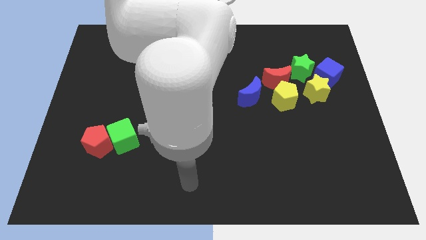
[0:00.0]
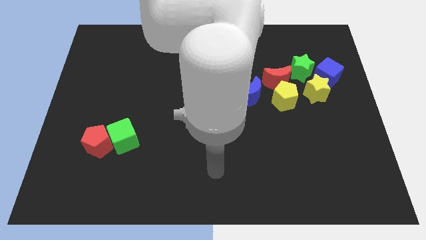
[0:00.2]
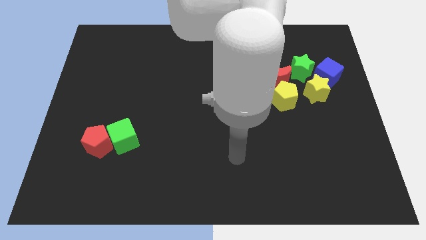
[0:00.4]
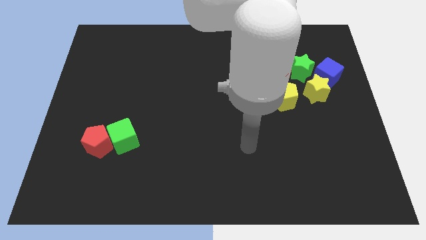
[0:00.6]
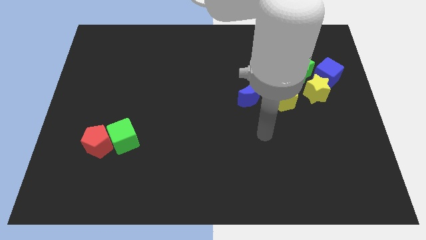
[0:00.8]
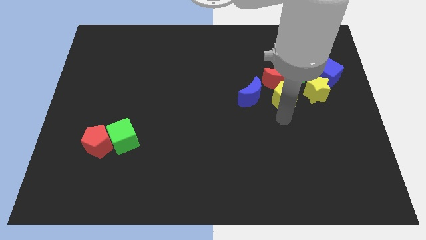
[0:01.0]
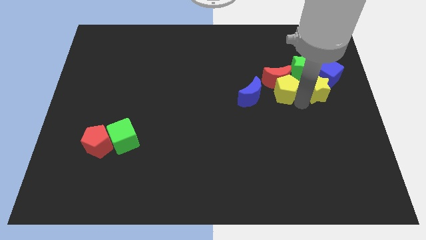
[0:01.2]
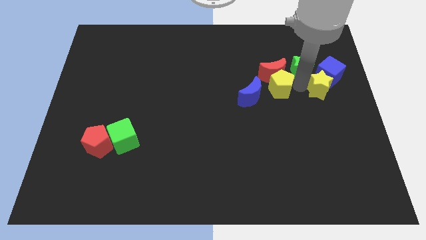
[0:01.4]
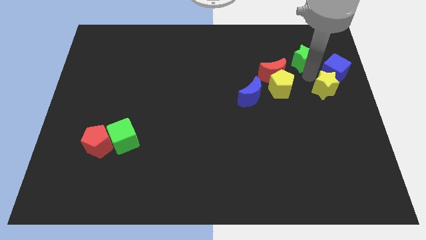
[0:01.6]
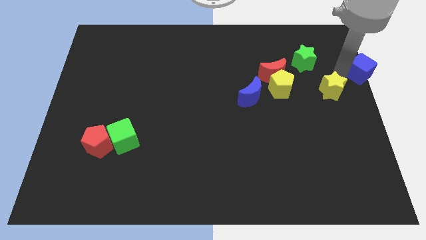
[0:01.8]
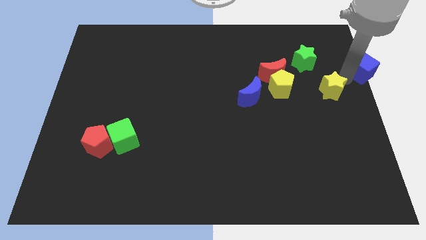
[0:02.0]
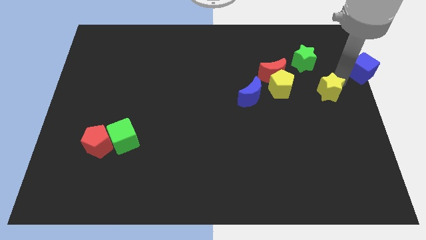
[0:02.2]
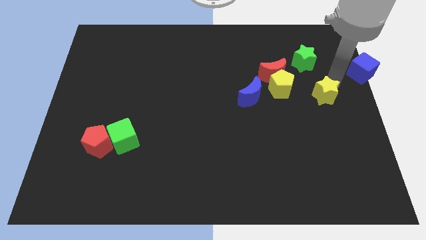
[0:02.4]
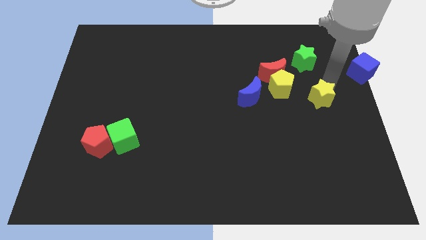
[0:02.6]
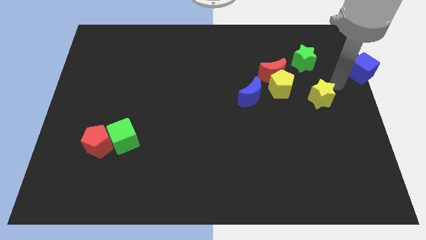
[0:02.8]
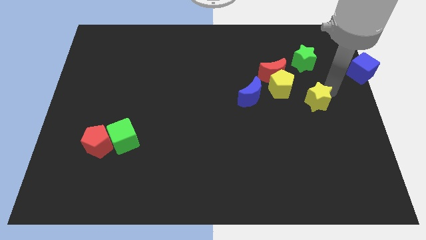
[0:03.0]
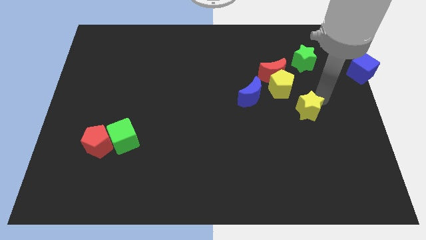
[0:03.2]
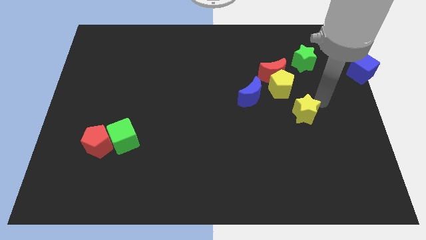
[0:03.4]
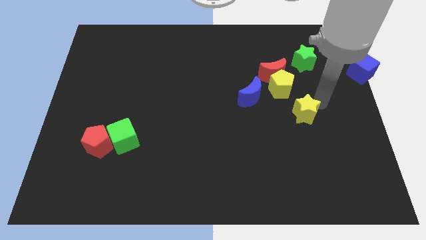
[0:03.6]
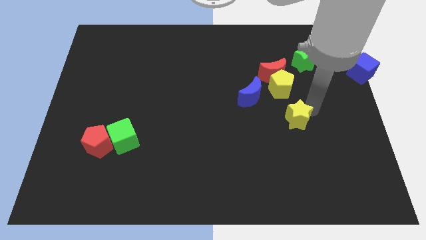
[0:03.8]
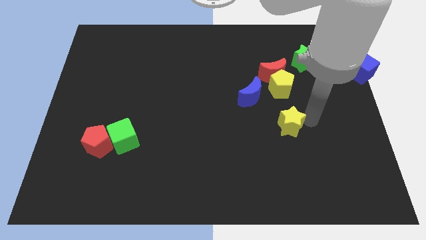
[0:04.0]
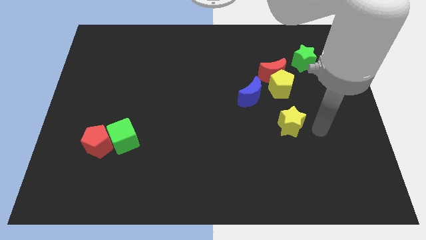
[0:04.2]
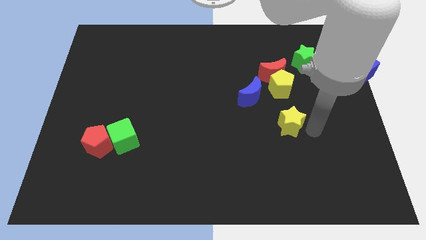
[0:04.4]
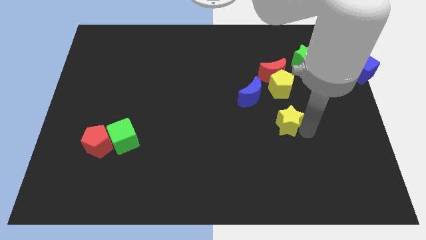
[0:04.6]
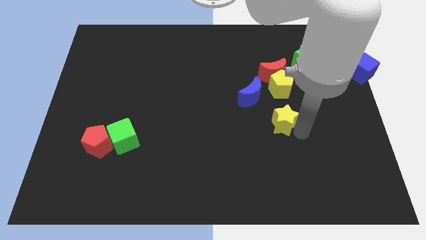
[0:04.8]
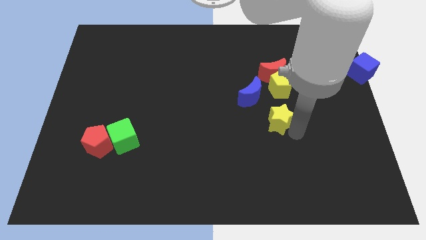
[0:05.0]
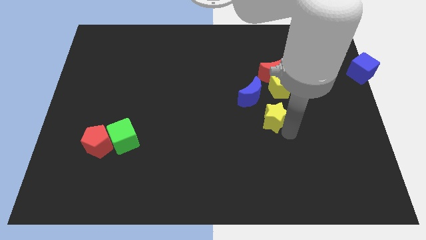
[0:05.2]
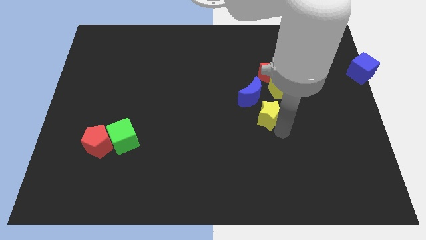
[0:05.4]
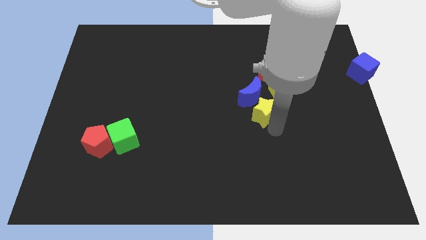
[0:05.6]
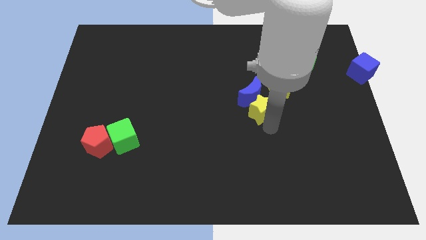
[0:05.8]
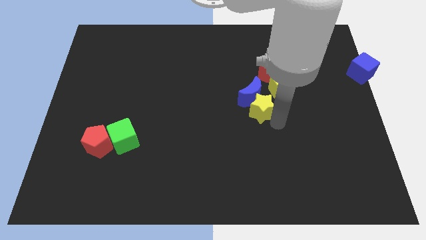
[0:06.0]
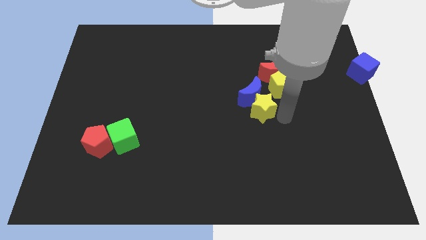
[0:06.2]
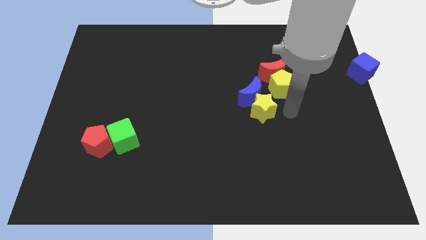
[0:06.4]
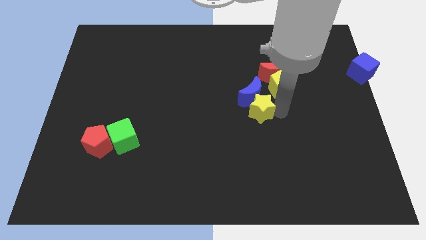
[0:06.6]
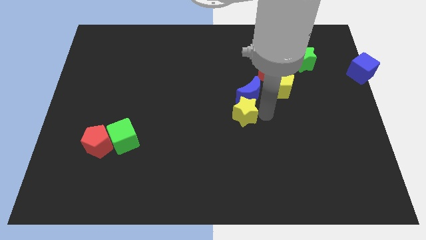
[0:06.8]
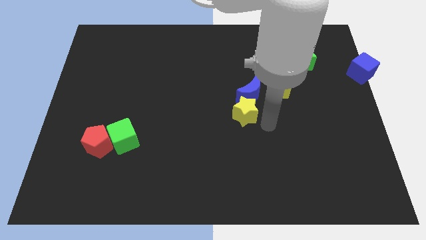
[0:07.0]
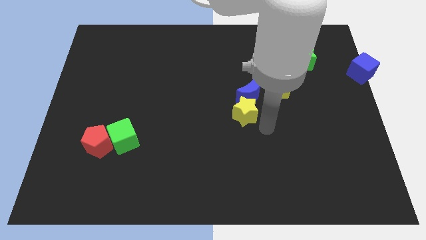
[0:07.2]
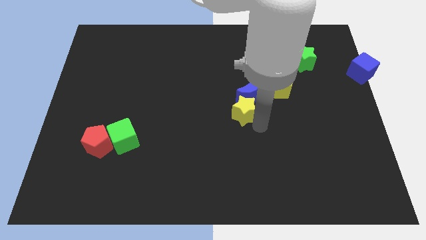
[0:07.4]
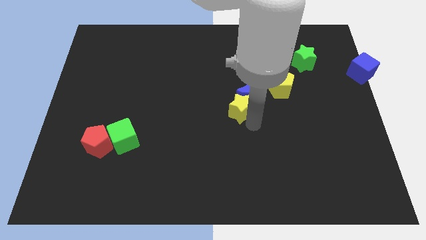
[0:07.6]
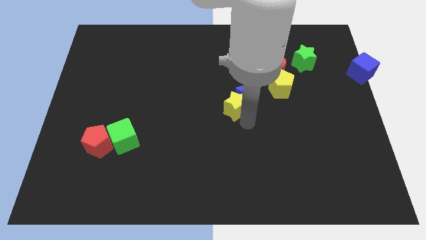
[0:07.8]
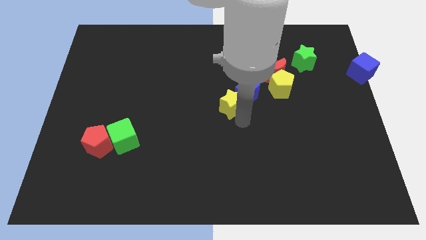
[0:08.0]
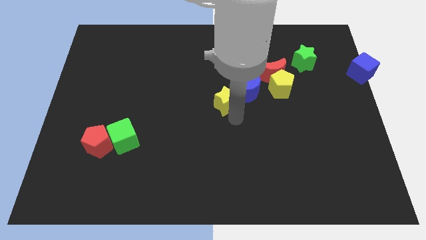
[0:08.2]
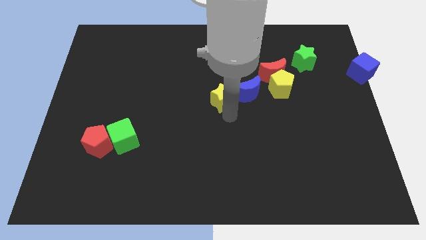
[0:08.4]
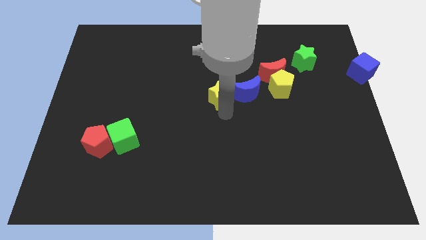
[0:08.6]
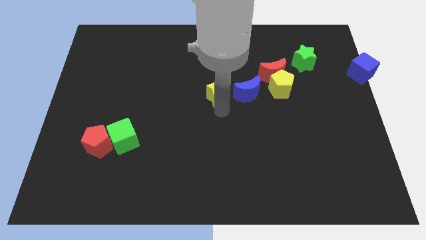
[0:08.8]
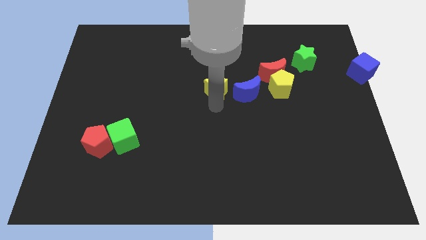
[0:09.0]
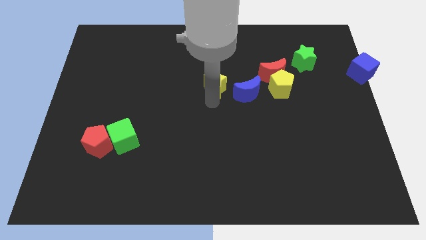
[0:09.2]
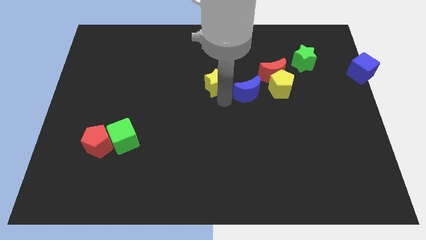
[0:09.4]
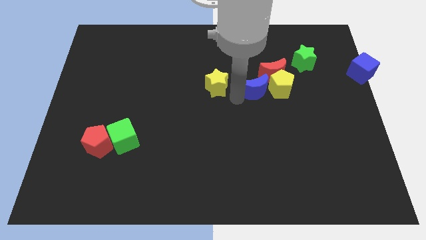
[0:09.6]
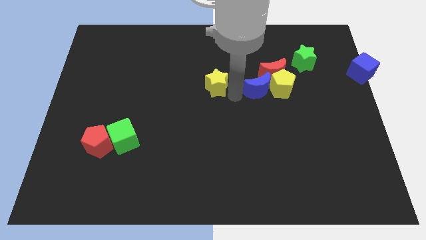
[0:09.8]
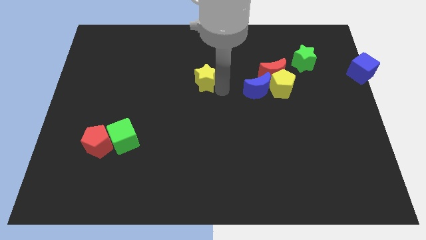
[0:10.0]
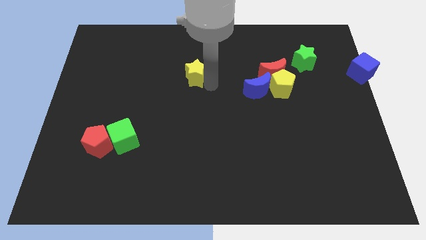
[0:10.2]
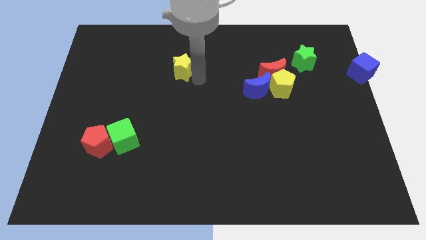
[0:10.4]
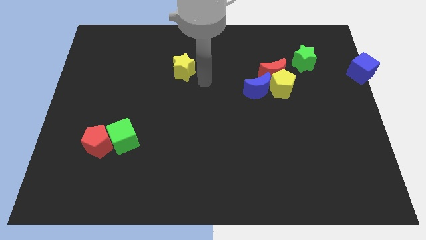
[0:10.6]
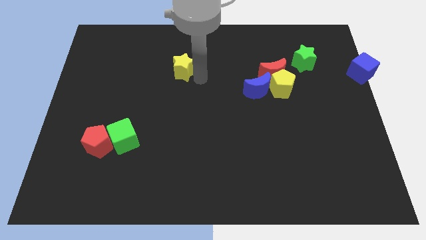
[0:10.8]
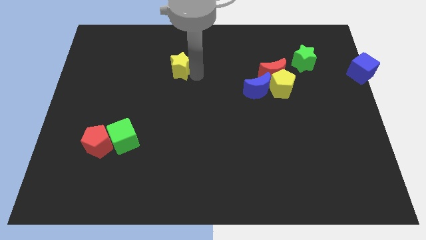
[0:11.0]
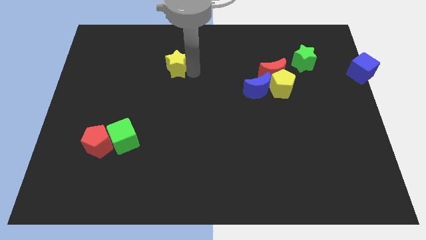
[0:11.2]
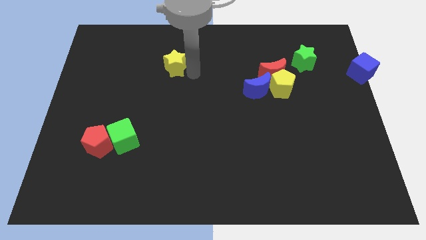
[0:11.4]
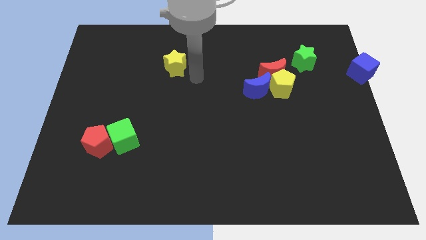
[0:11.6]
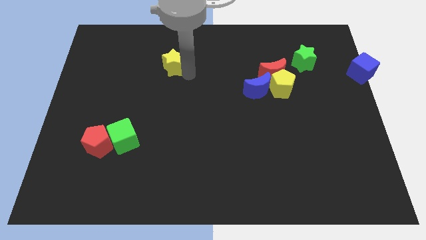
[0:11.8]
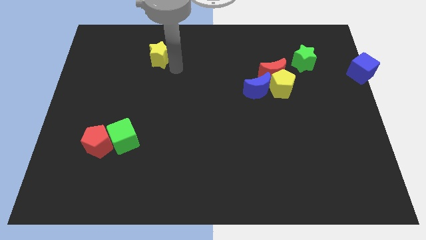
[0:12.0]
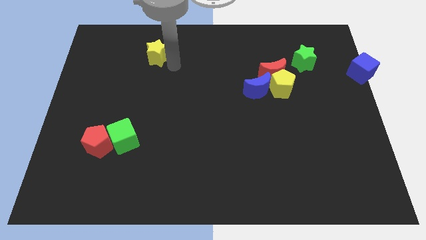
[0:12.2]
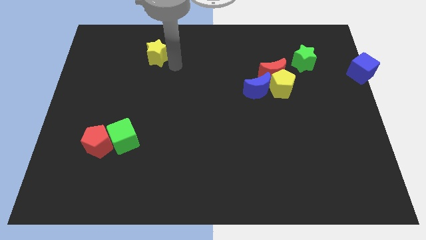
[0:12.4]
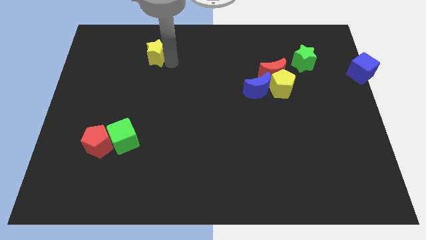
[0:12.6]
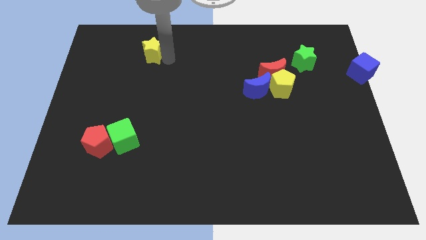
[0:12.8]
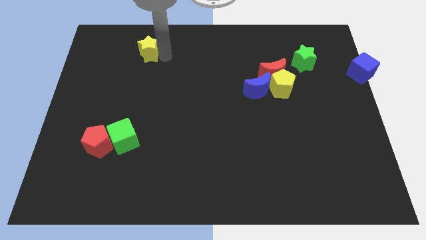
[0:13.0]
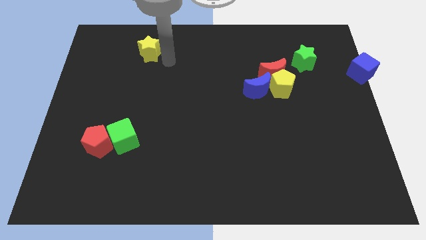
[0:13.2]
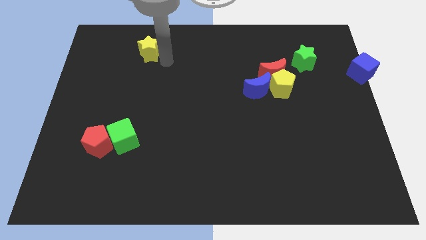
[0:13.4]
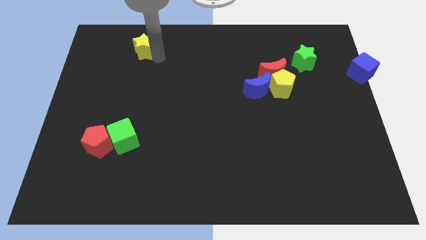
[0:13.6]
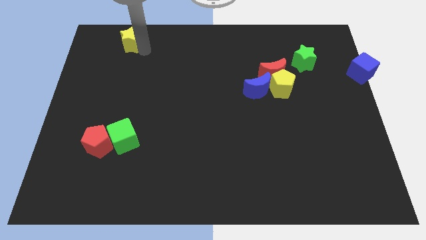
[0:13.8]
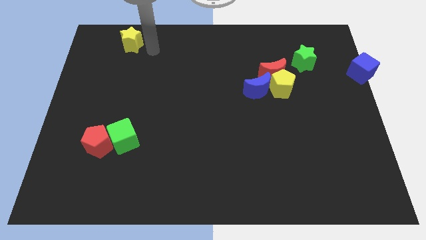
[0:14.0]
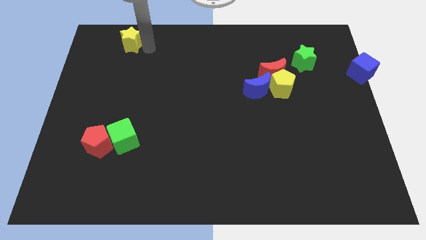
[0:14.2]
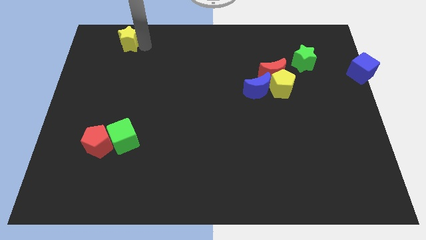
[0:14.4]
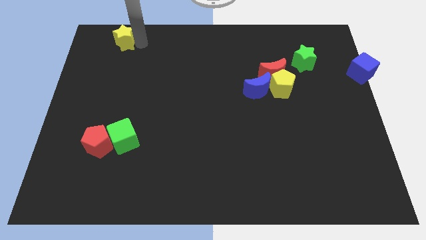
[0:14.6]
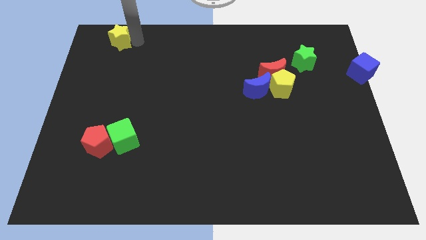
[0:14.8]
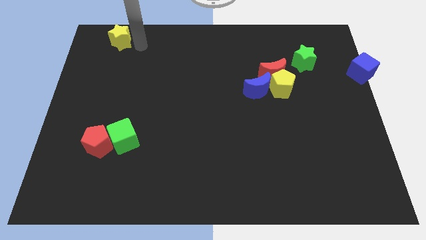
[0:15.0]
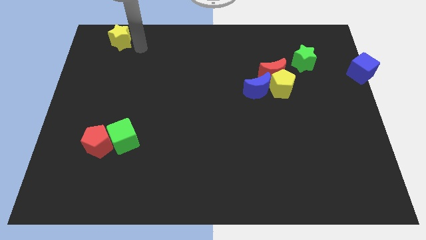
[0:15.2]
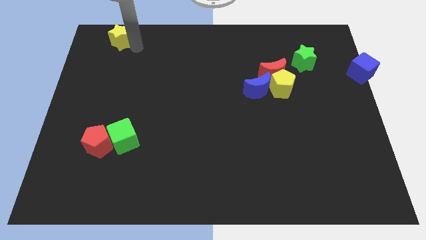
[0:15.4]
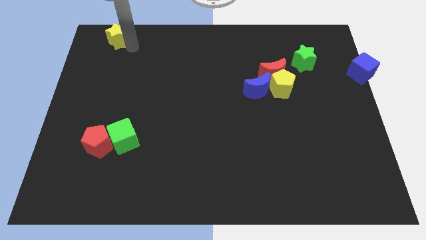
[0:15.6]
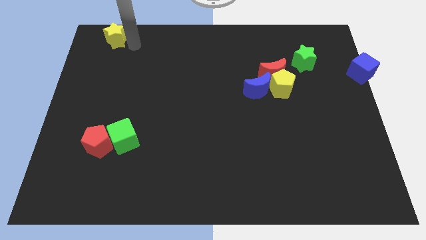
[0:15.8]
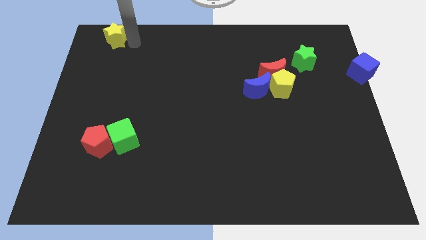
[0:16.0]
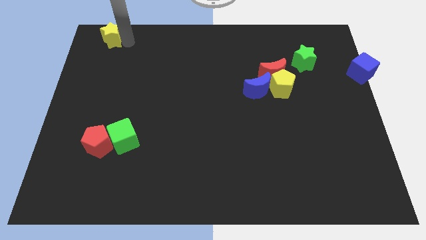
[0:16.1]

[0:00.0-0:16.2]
push the yellow star to the upper left corner
